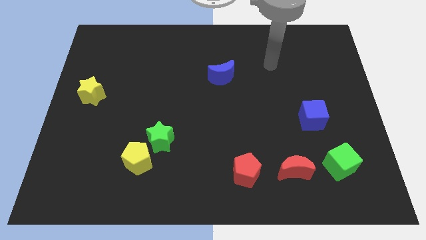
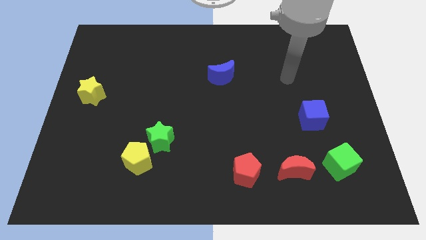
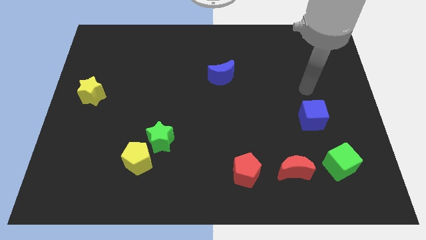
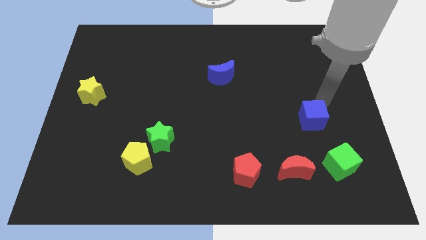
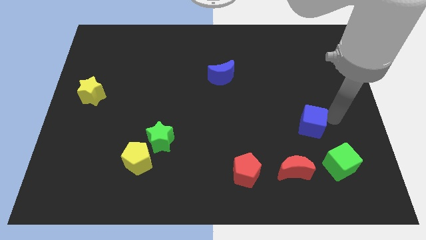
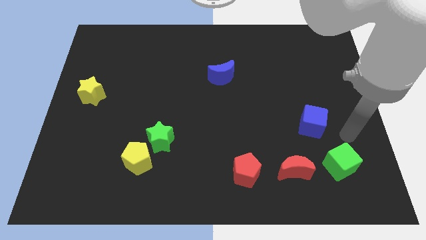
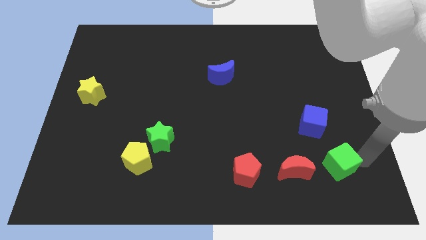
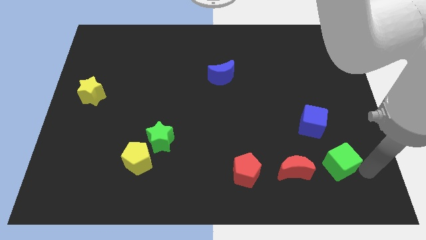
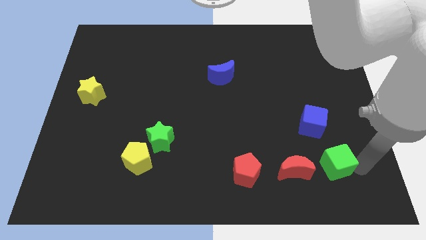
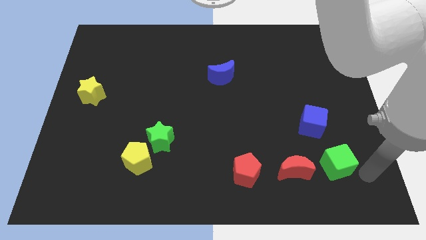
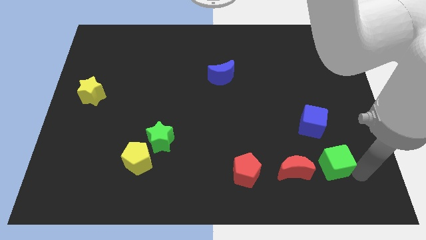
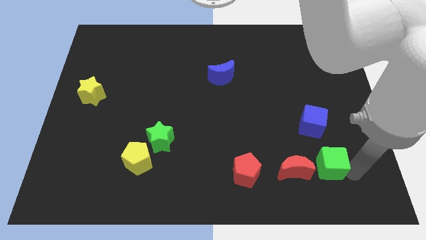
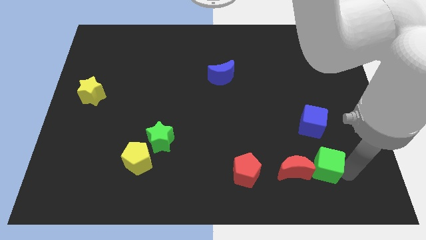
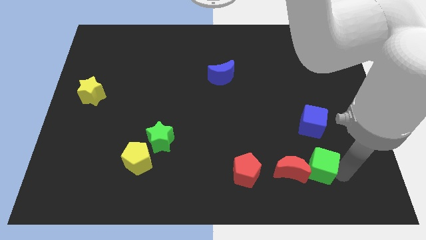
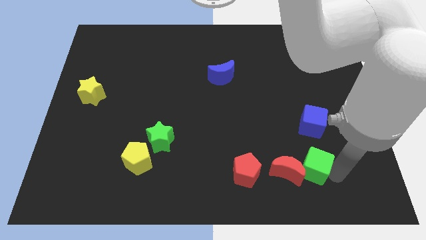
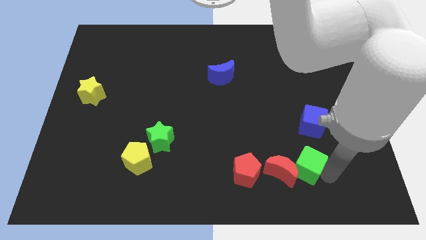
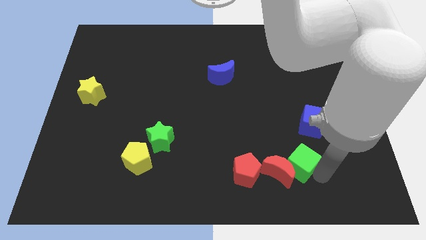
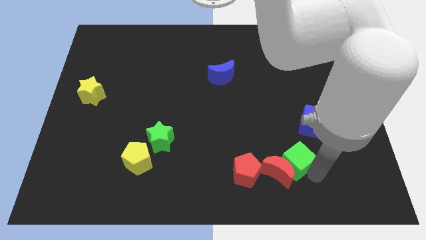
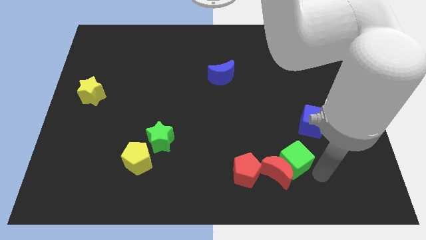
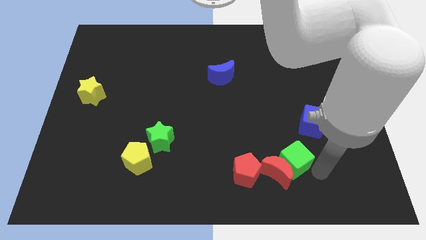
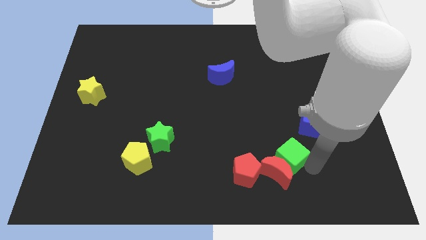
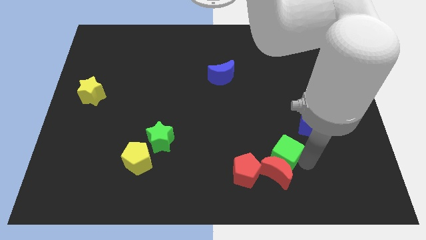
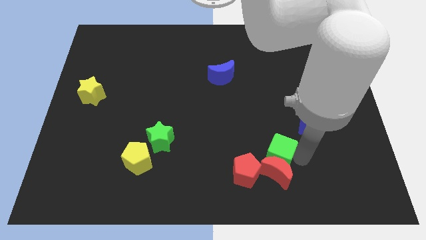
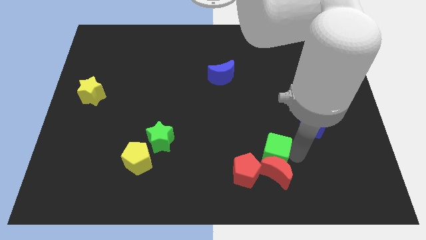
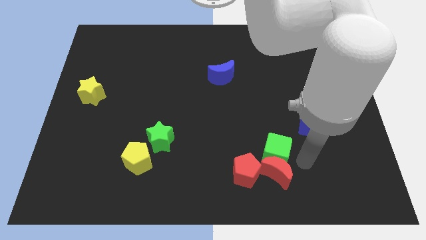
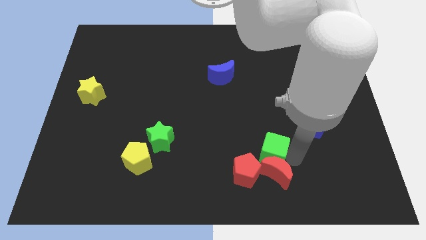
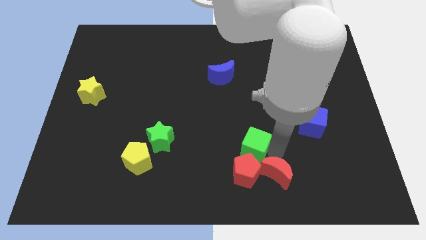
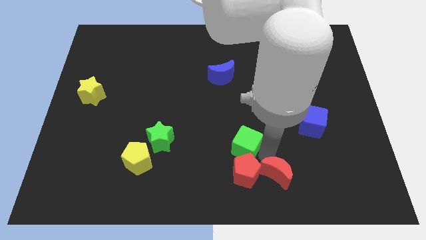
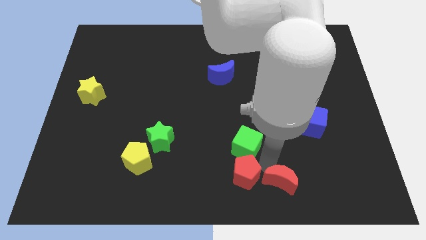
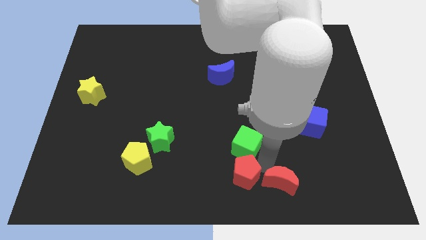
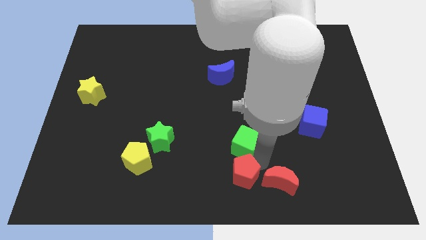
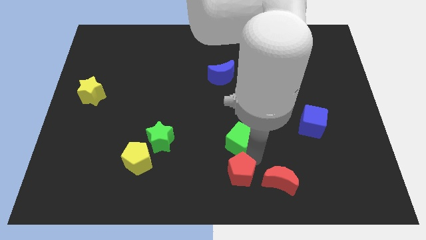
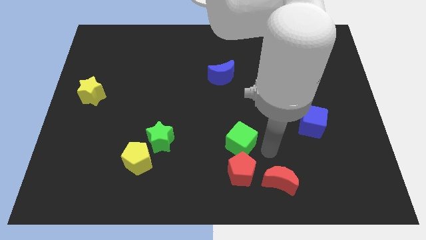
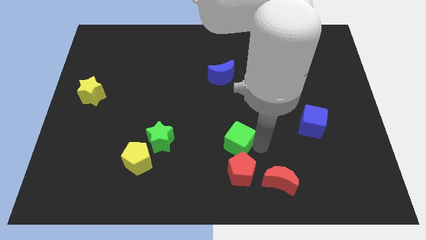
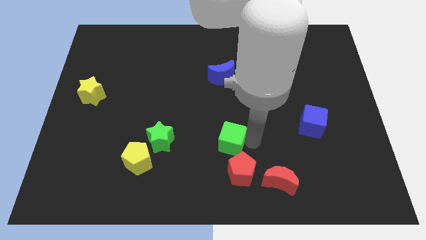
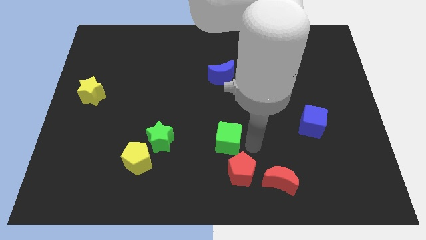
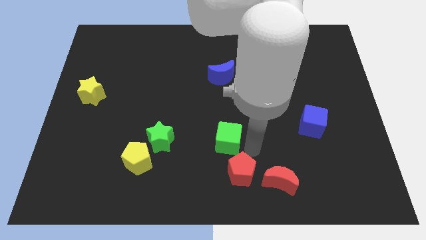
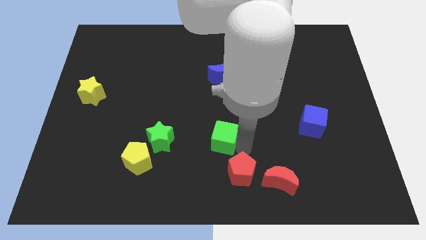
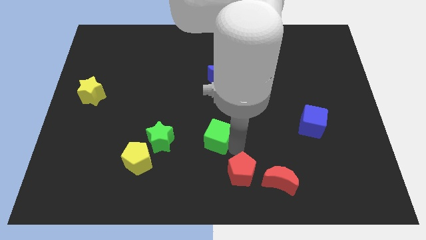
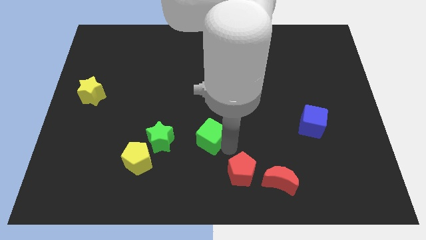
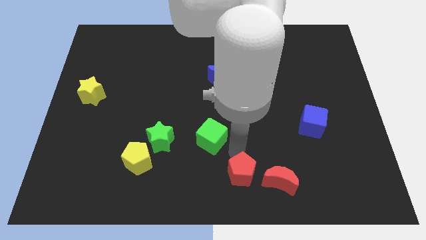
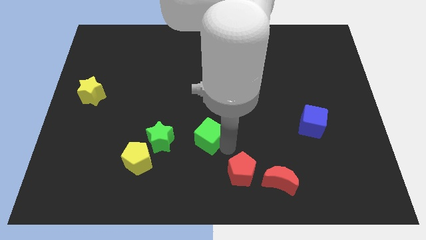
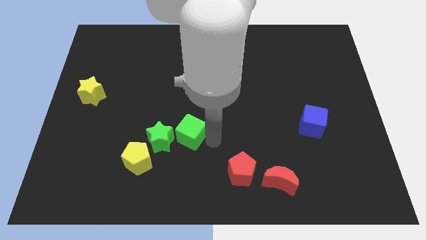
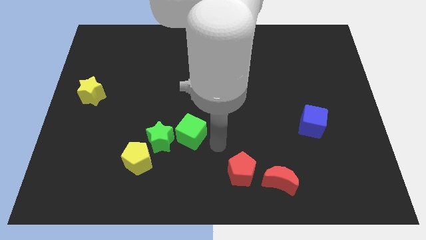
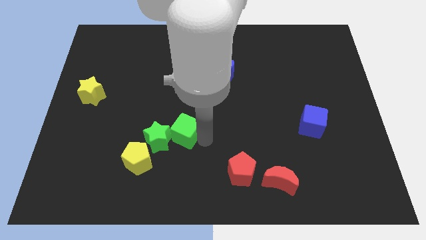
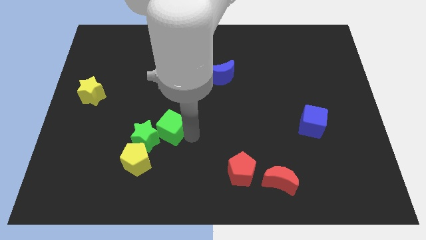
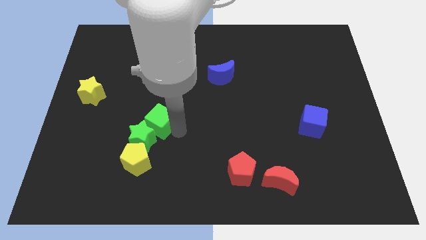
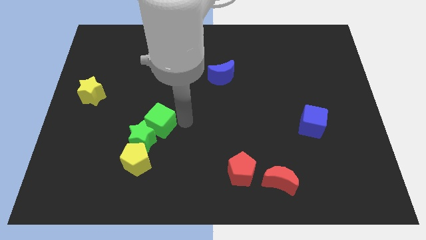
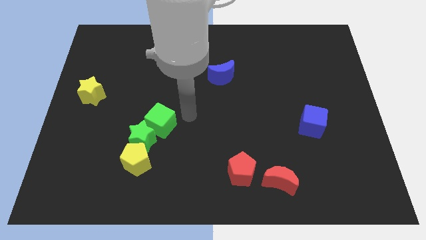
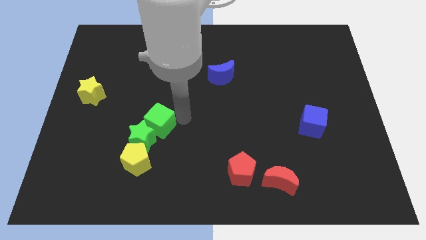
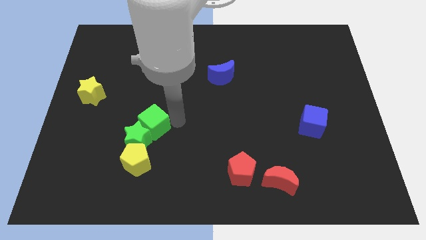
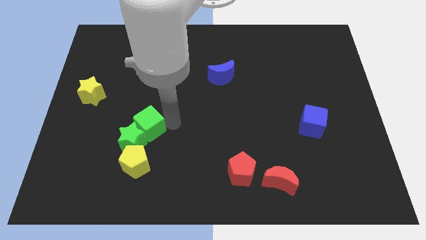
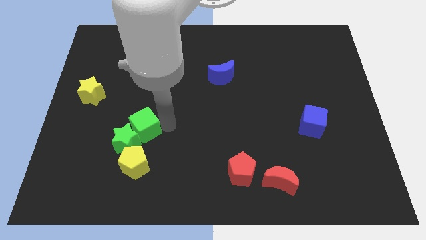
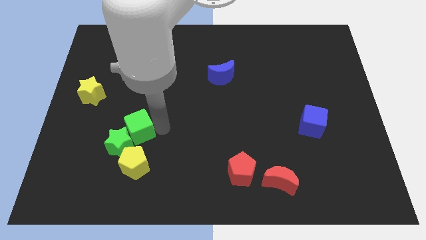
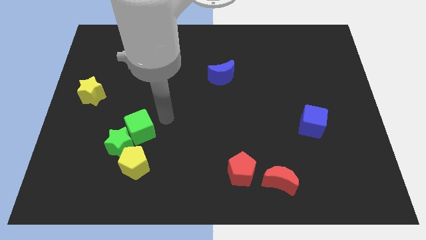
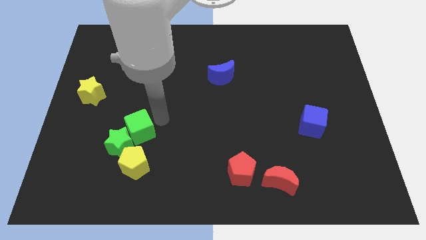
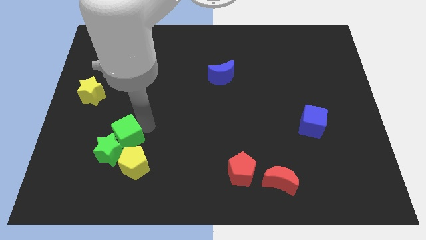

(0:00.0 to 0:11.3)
slide the green cube diagonally up and to the left of the yellow pentagon
